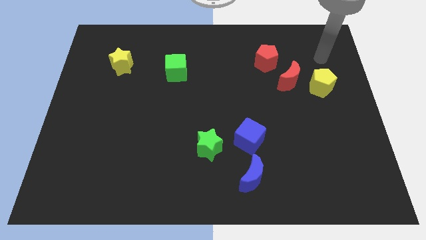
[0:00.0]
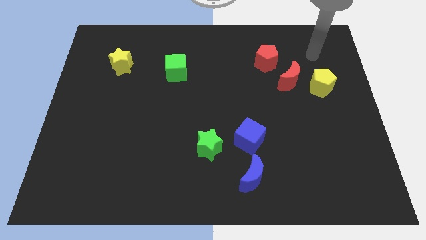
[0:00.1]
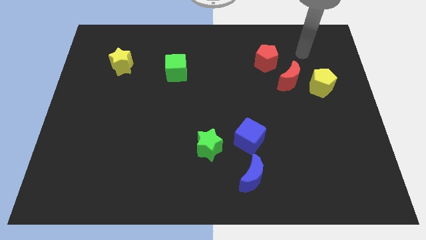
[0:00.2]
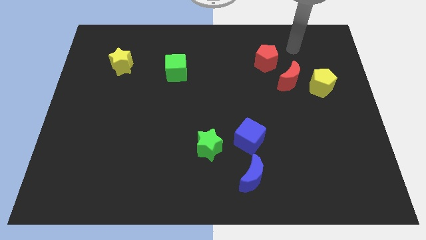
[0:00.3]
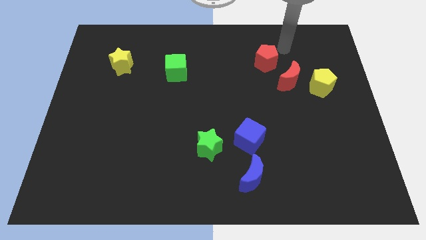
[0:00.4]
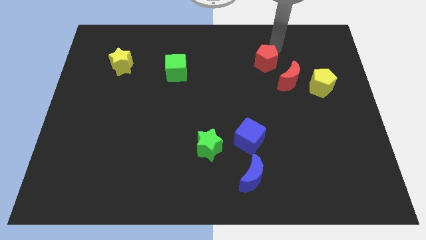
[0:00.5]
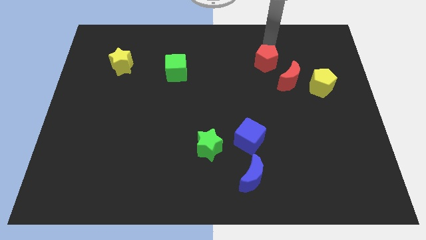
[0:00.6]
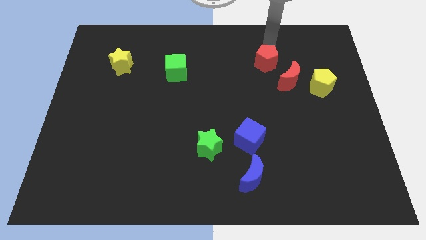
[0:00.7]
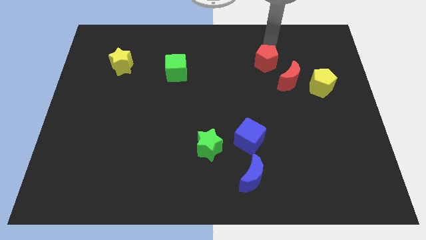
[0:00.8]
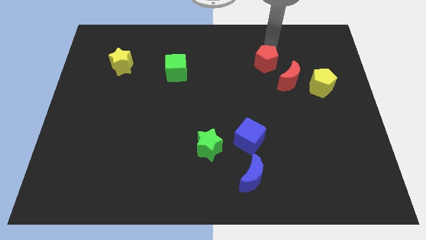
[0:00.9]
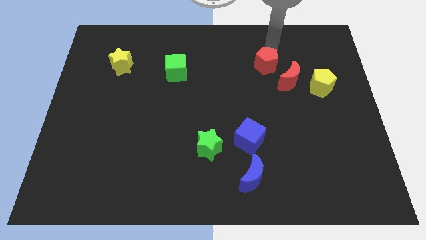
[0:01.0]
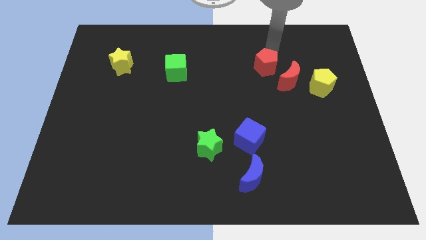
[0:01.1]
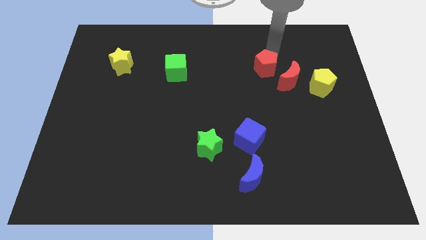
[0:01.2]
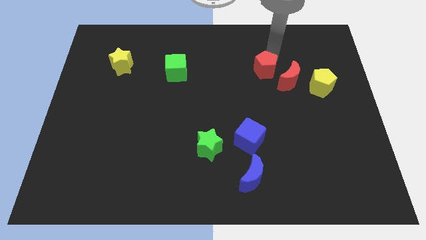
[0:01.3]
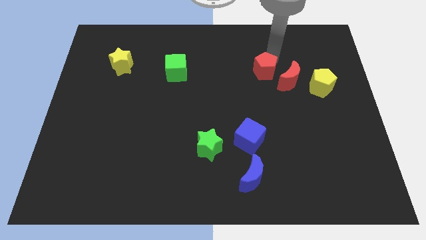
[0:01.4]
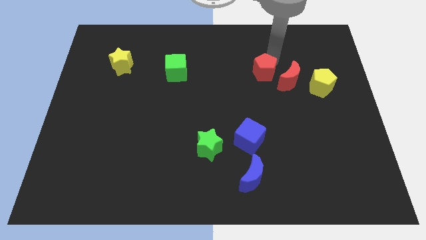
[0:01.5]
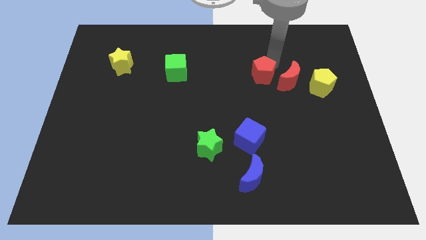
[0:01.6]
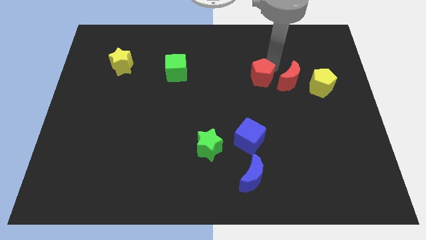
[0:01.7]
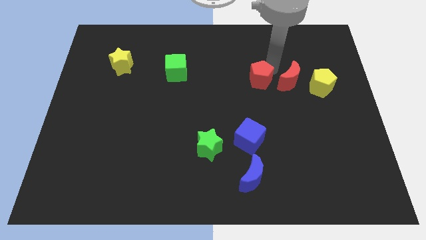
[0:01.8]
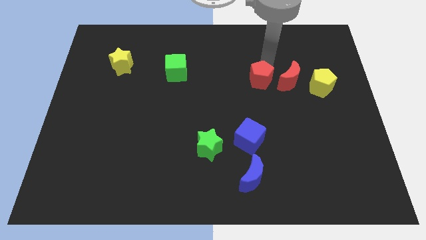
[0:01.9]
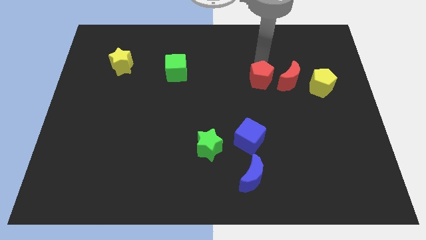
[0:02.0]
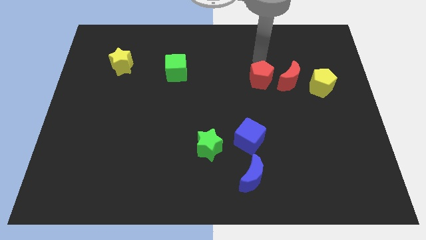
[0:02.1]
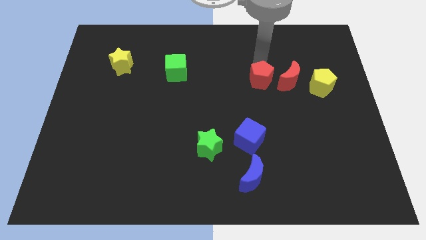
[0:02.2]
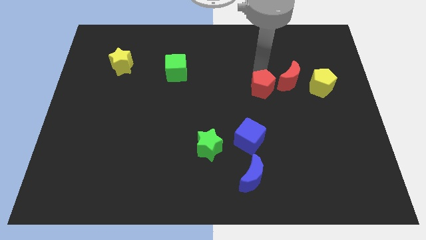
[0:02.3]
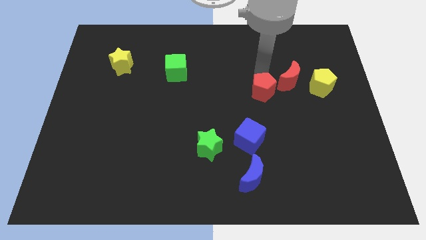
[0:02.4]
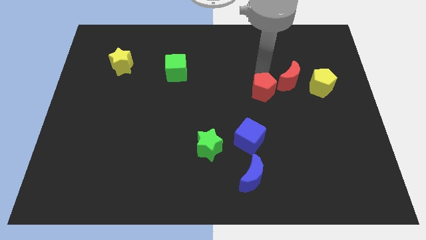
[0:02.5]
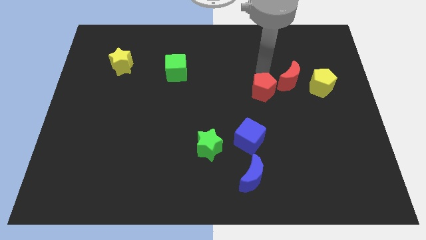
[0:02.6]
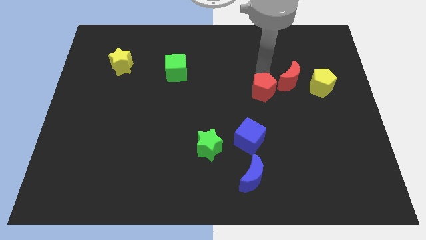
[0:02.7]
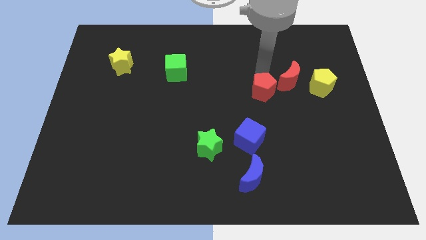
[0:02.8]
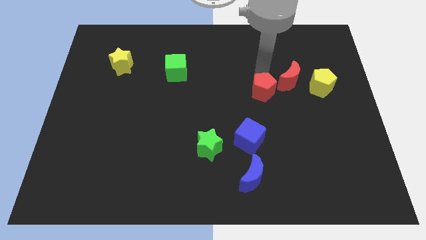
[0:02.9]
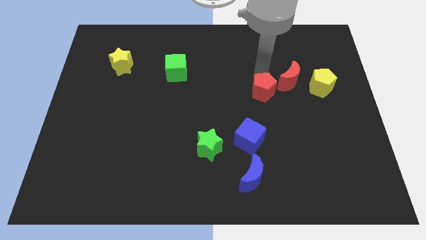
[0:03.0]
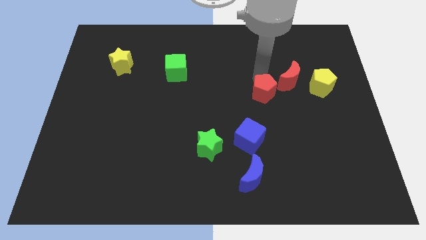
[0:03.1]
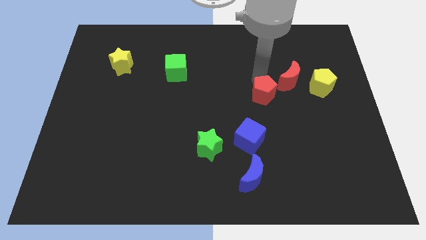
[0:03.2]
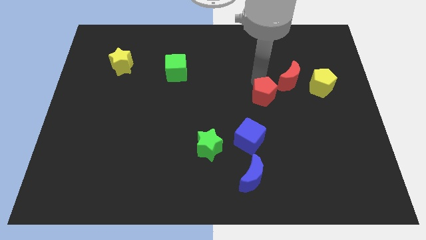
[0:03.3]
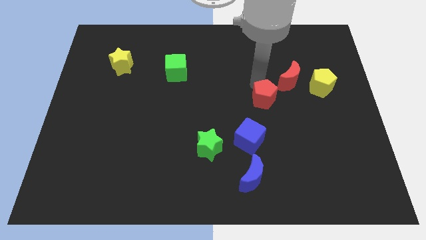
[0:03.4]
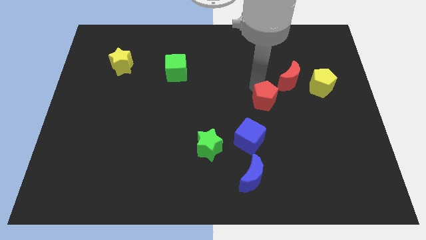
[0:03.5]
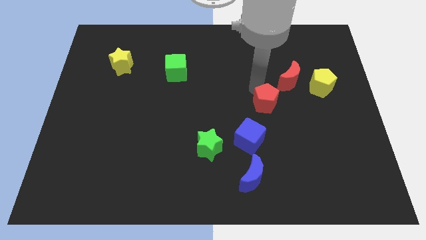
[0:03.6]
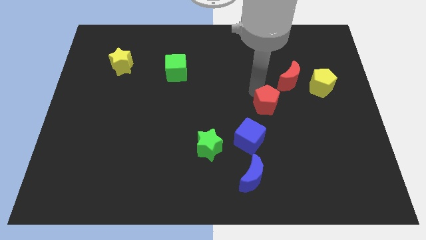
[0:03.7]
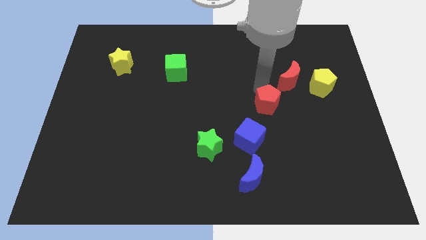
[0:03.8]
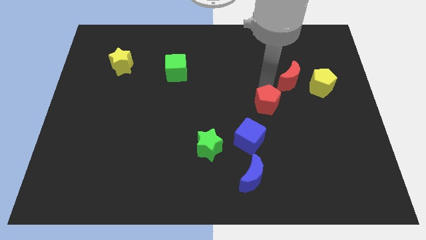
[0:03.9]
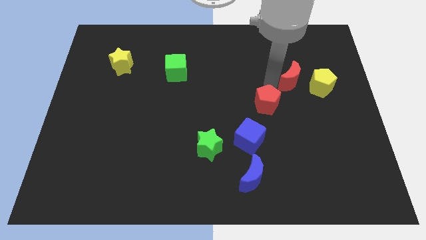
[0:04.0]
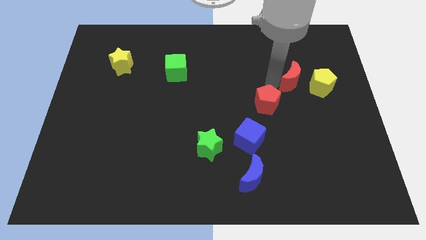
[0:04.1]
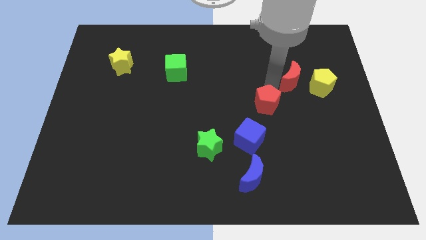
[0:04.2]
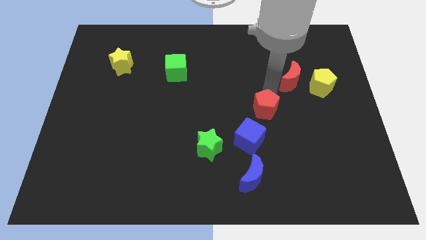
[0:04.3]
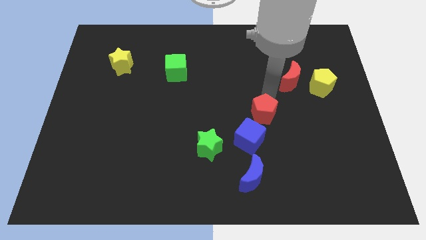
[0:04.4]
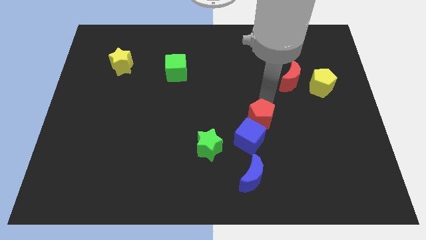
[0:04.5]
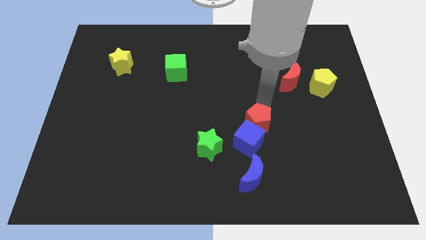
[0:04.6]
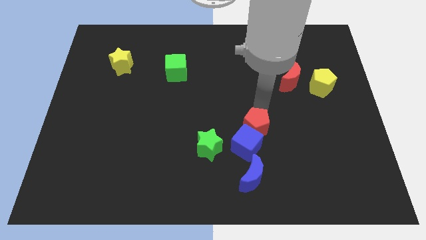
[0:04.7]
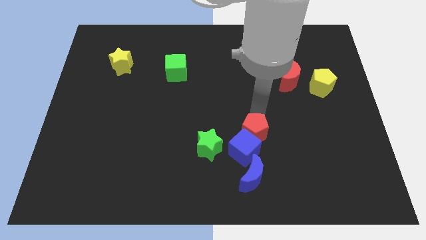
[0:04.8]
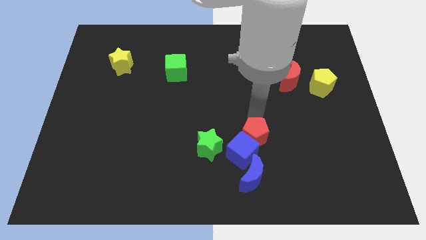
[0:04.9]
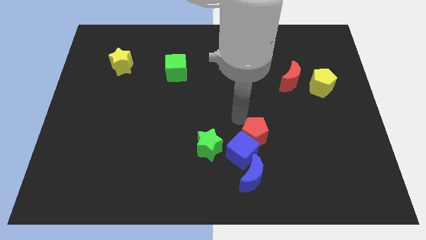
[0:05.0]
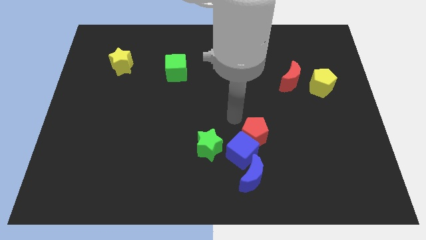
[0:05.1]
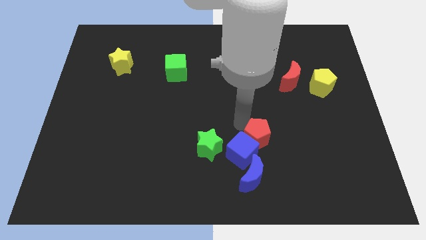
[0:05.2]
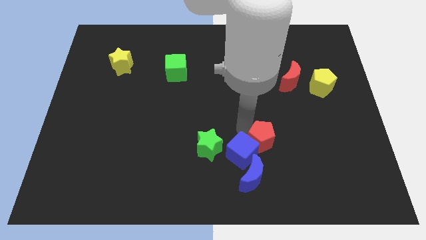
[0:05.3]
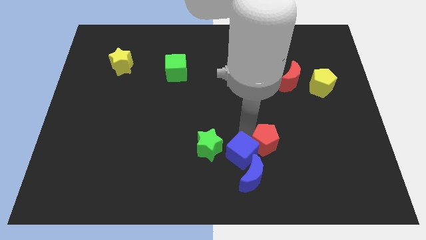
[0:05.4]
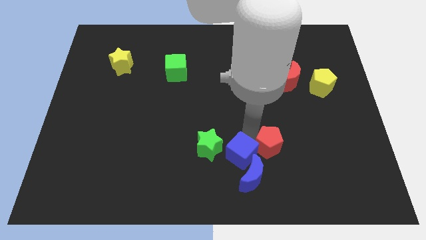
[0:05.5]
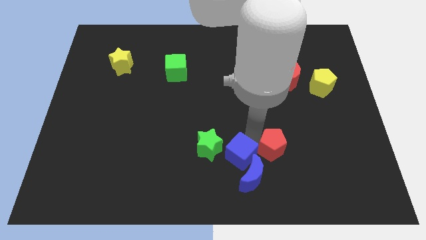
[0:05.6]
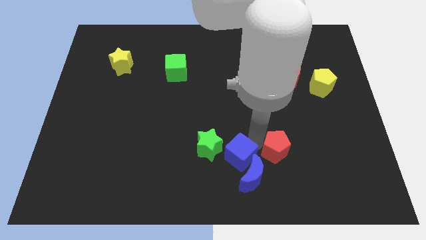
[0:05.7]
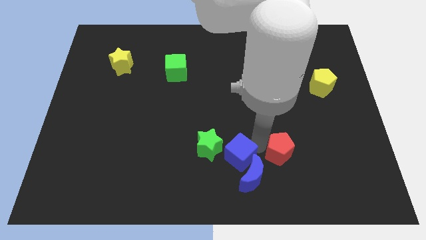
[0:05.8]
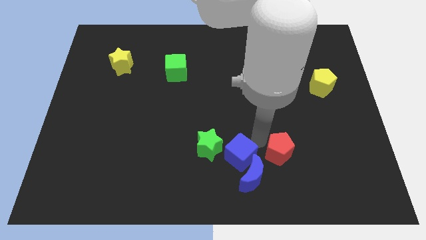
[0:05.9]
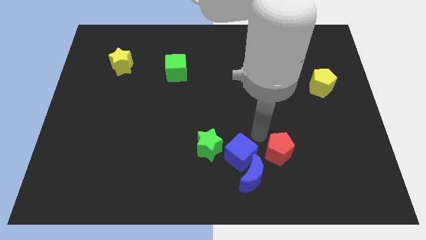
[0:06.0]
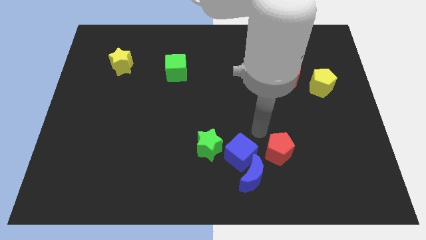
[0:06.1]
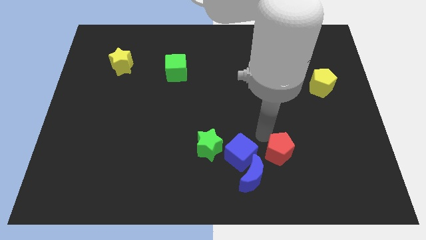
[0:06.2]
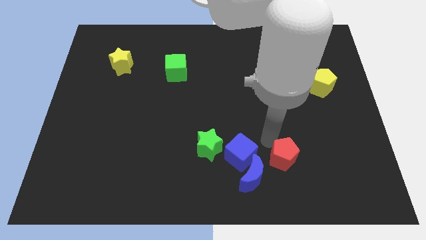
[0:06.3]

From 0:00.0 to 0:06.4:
put the red pentagon right of the blue moon
